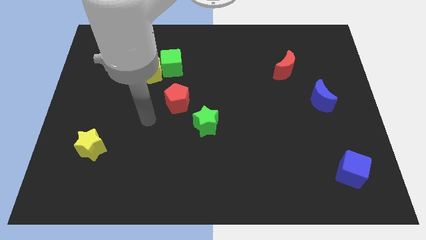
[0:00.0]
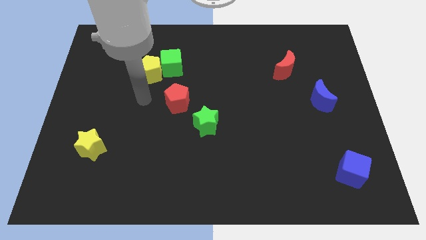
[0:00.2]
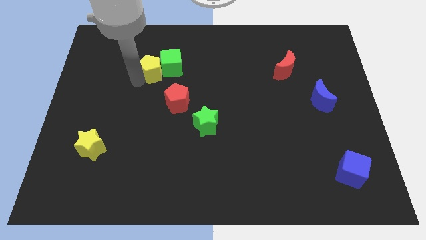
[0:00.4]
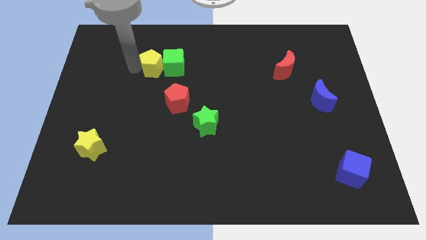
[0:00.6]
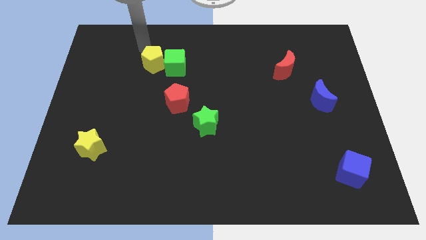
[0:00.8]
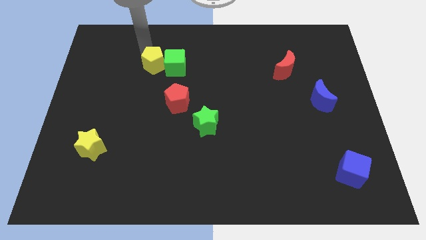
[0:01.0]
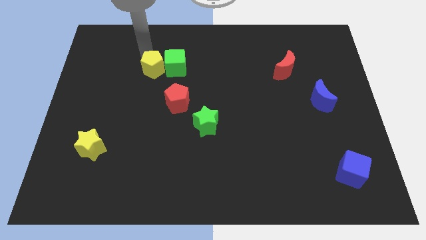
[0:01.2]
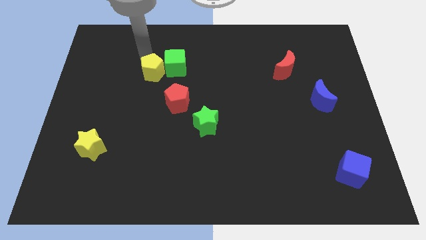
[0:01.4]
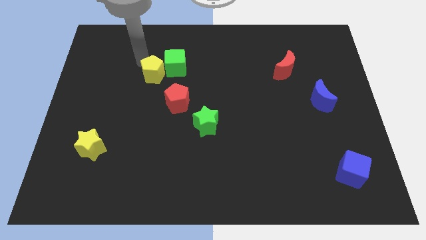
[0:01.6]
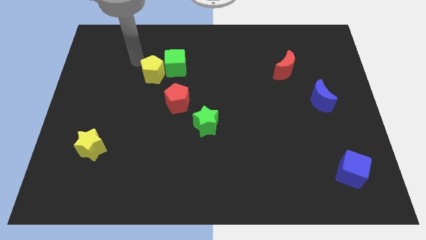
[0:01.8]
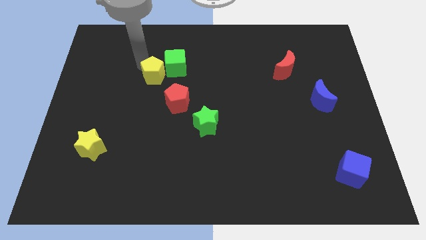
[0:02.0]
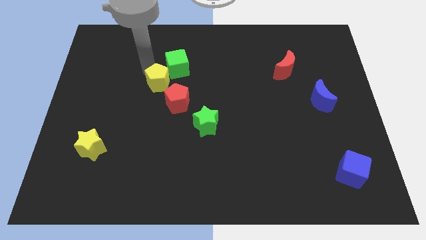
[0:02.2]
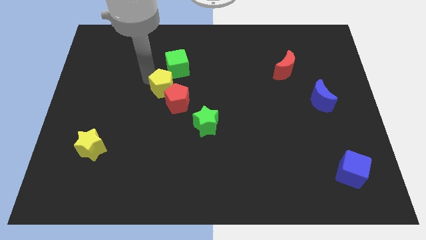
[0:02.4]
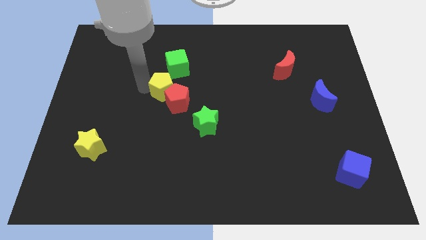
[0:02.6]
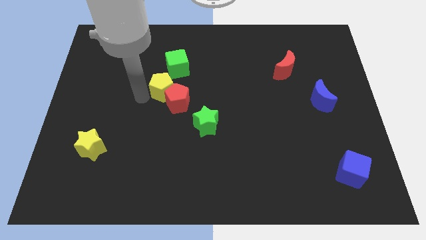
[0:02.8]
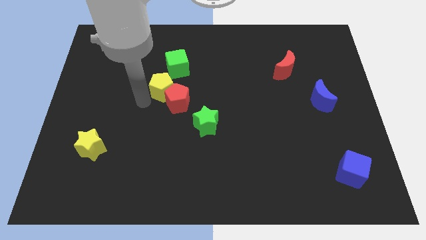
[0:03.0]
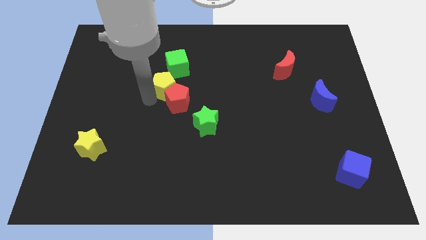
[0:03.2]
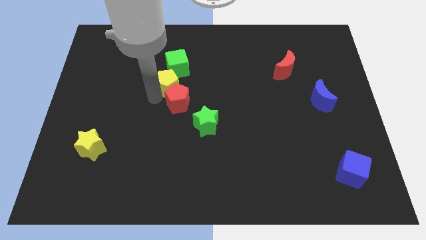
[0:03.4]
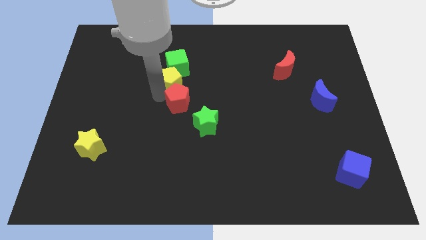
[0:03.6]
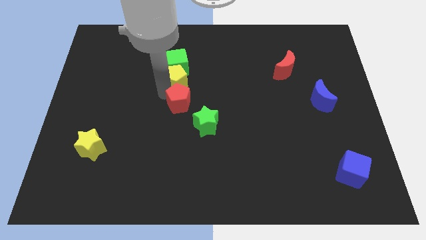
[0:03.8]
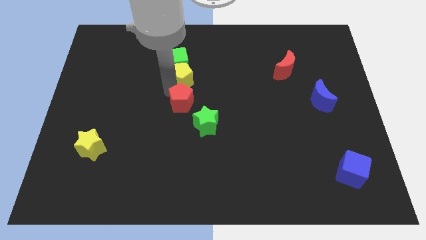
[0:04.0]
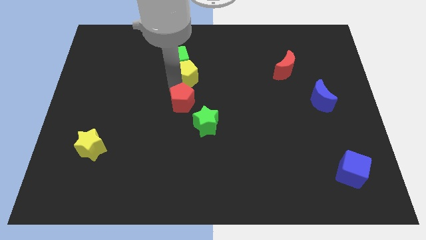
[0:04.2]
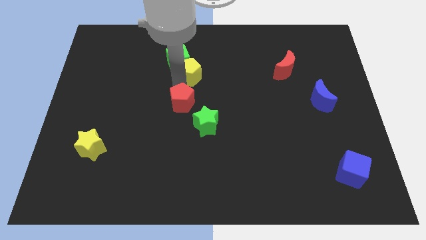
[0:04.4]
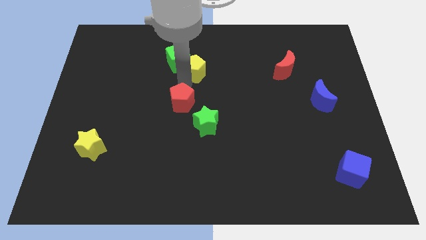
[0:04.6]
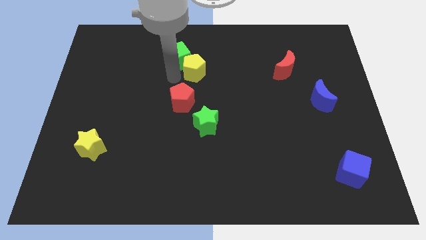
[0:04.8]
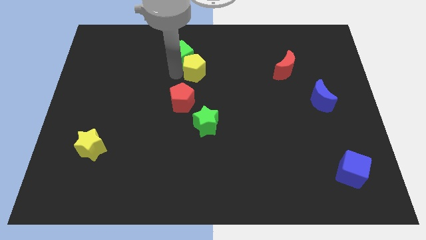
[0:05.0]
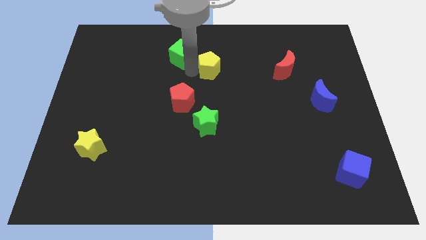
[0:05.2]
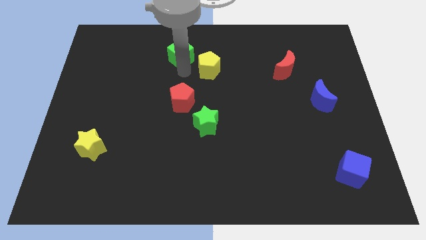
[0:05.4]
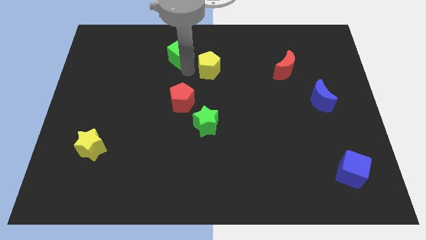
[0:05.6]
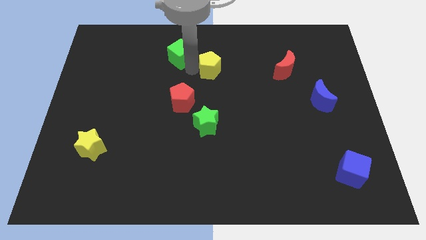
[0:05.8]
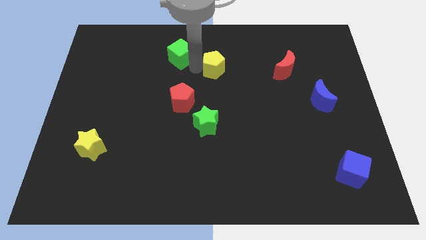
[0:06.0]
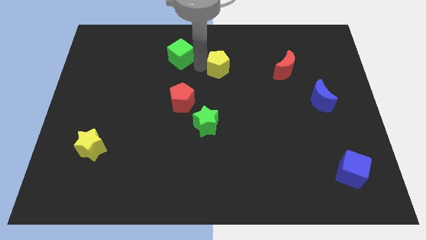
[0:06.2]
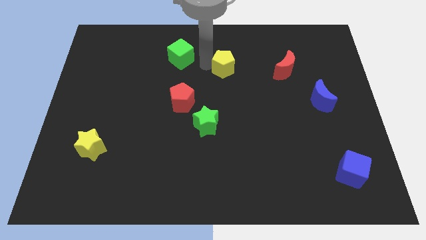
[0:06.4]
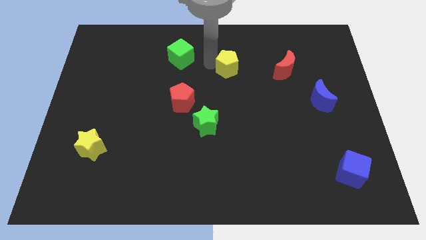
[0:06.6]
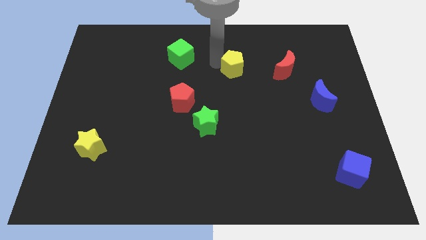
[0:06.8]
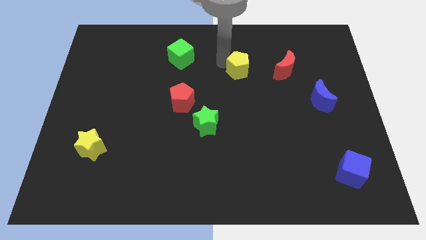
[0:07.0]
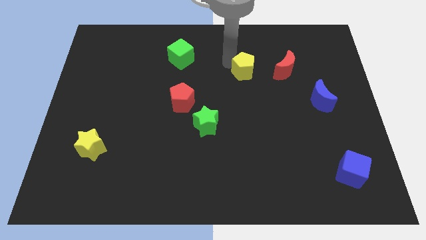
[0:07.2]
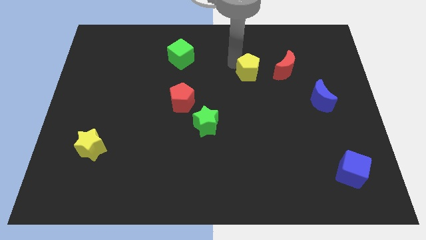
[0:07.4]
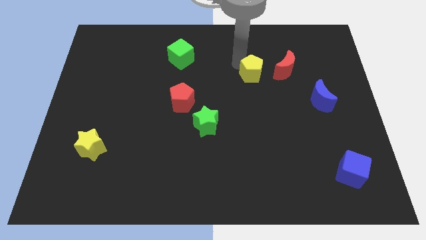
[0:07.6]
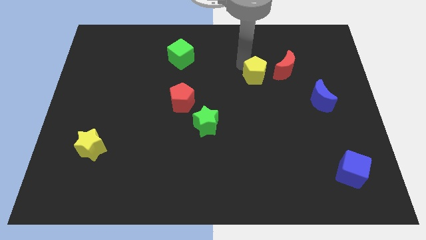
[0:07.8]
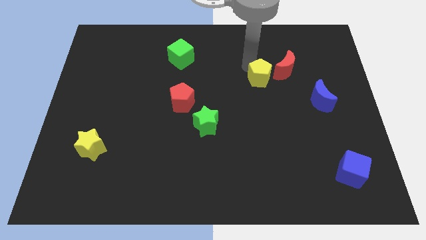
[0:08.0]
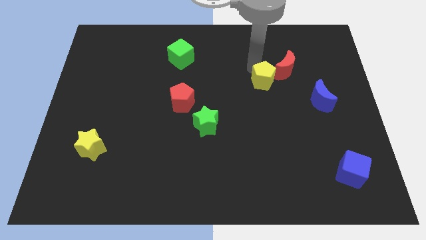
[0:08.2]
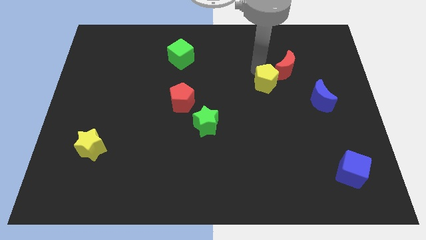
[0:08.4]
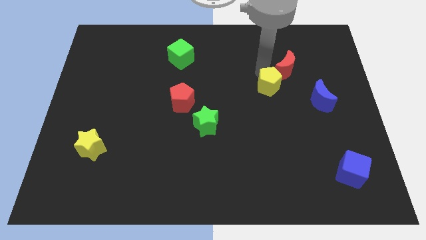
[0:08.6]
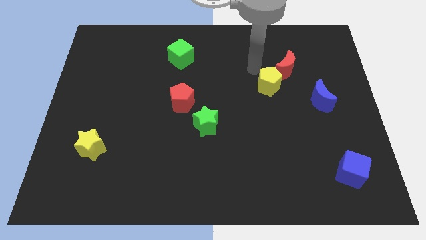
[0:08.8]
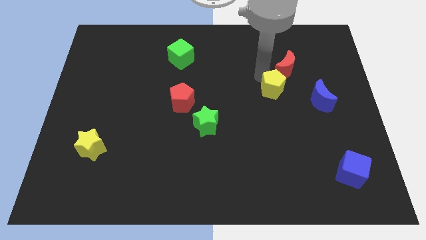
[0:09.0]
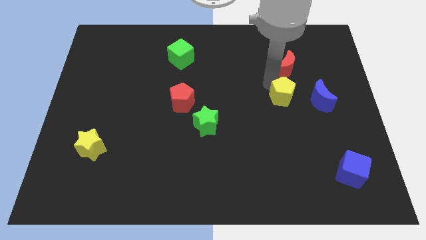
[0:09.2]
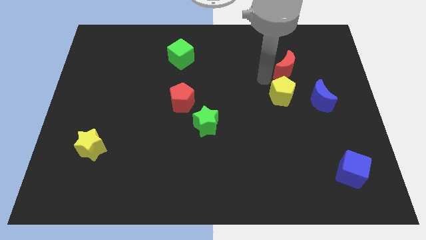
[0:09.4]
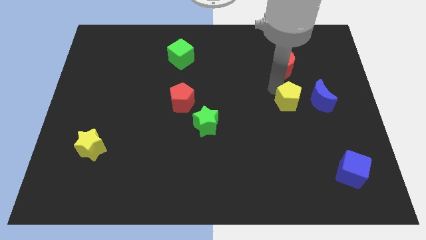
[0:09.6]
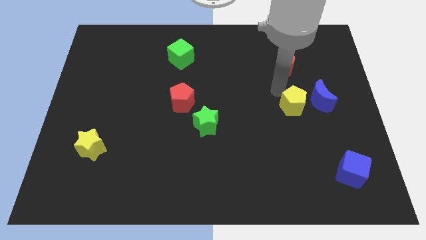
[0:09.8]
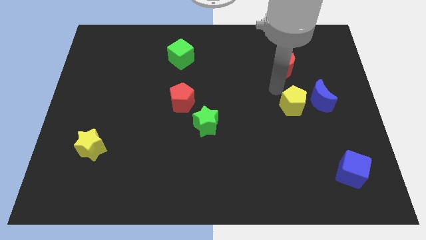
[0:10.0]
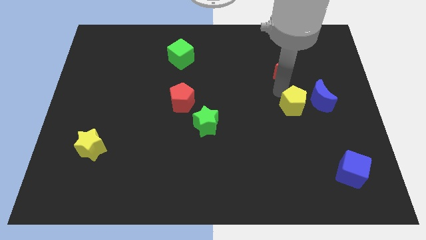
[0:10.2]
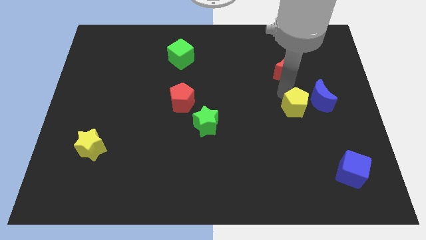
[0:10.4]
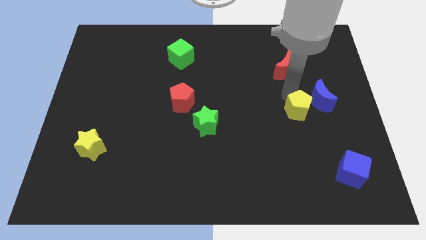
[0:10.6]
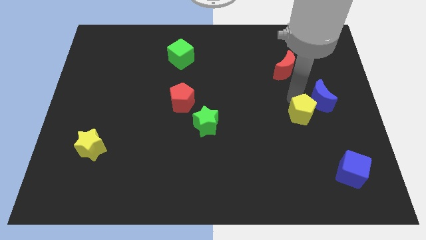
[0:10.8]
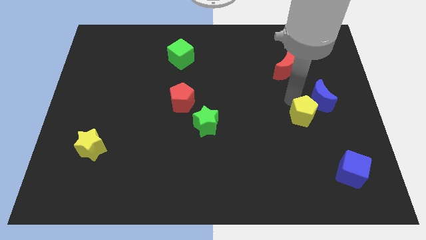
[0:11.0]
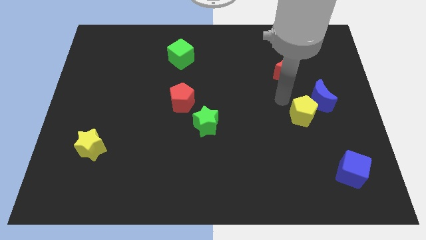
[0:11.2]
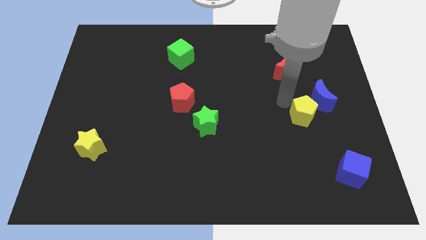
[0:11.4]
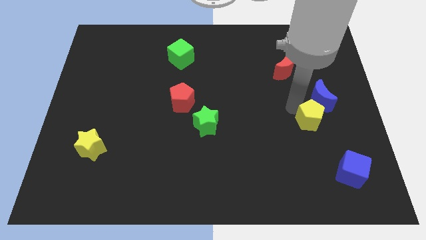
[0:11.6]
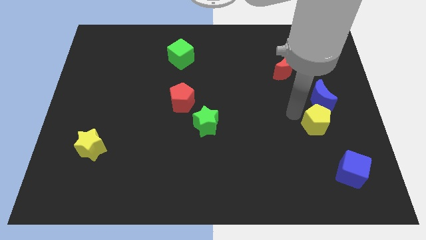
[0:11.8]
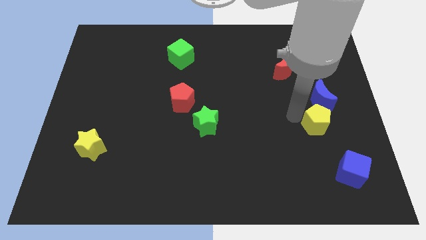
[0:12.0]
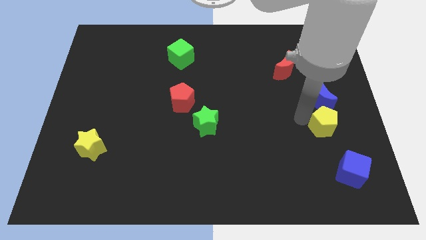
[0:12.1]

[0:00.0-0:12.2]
slide the yellow pentagon to the top of the blue cube

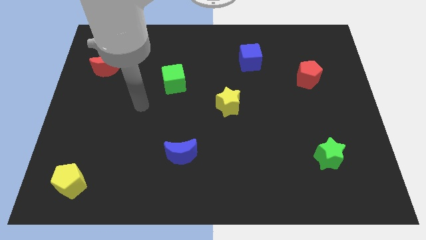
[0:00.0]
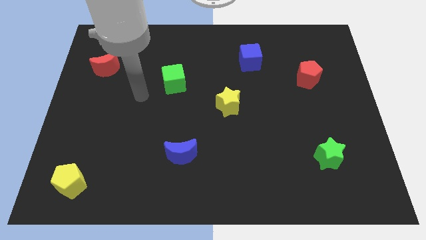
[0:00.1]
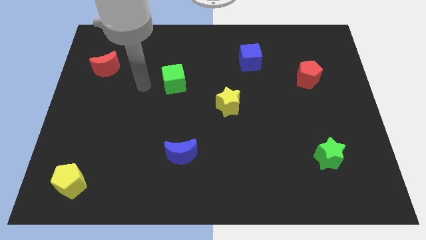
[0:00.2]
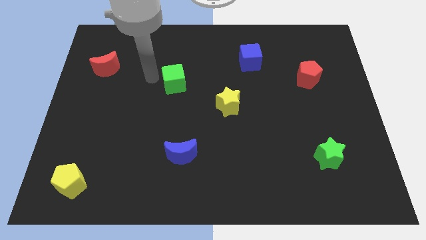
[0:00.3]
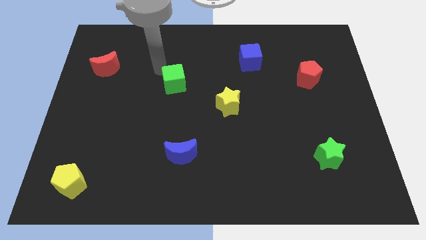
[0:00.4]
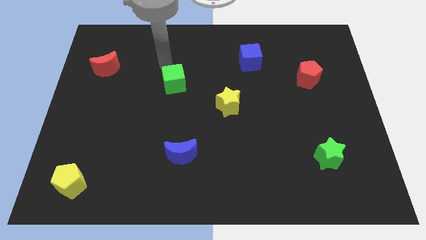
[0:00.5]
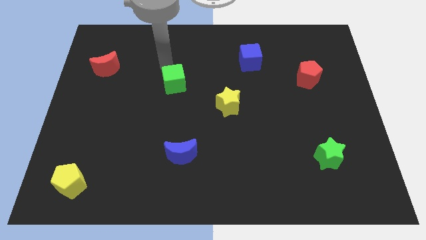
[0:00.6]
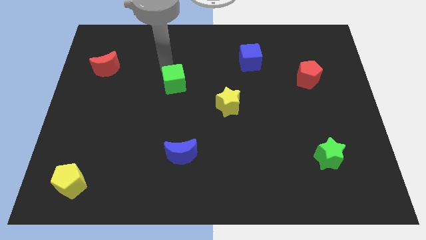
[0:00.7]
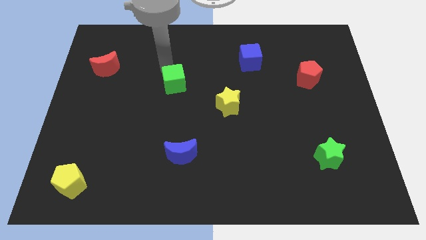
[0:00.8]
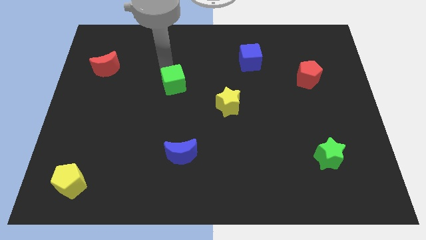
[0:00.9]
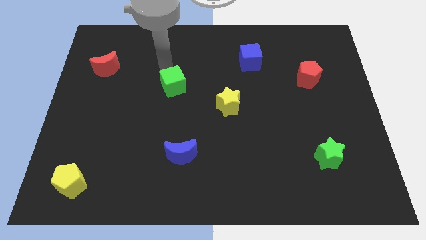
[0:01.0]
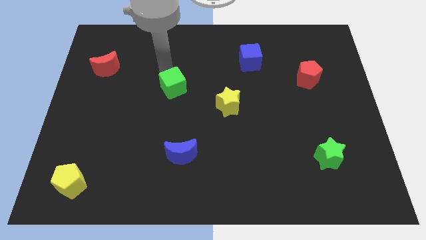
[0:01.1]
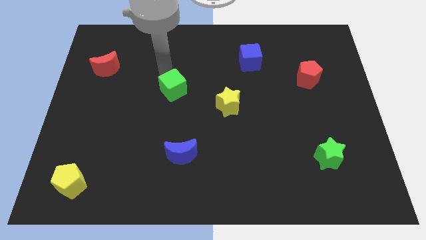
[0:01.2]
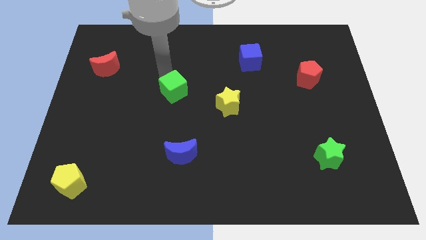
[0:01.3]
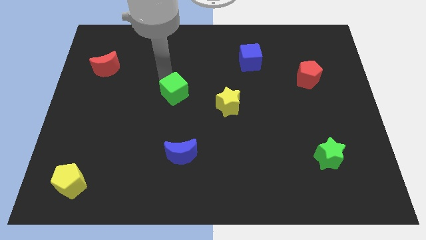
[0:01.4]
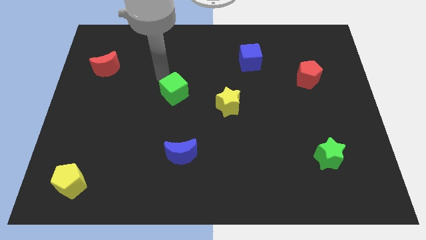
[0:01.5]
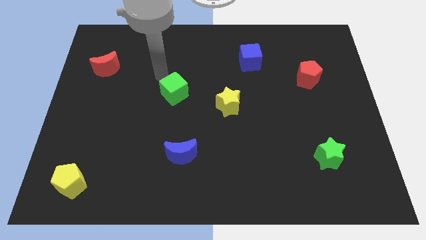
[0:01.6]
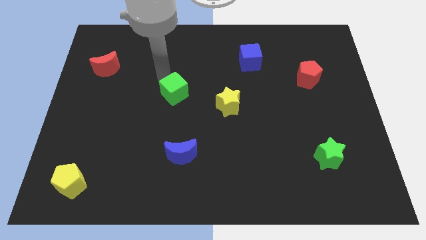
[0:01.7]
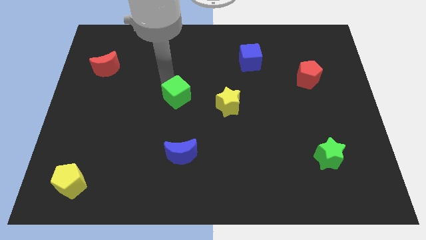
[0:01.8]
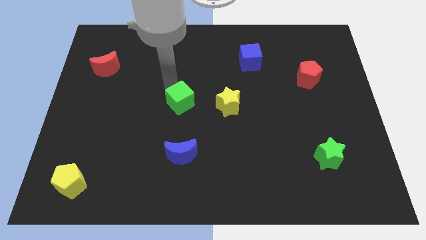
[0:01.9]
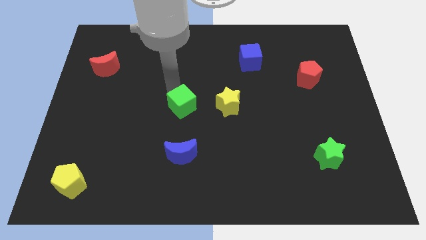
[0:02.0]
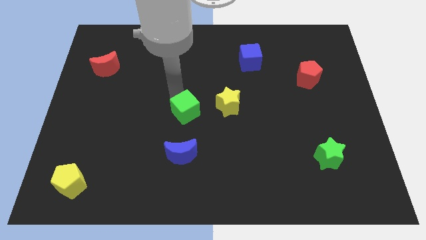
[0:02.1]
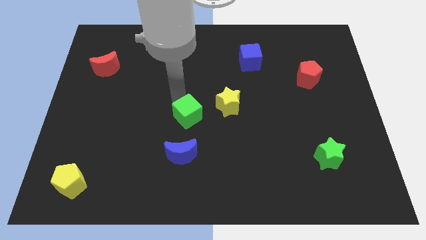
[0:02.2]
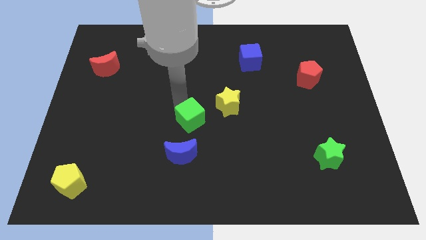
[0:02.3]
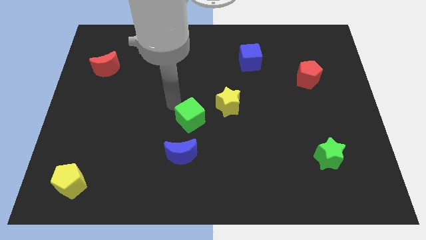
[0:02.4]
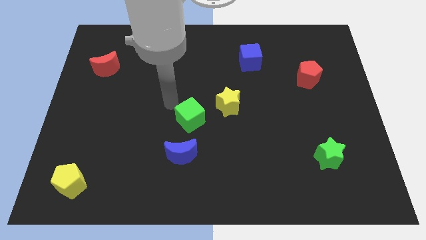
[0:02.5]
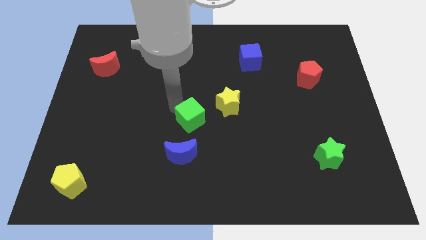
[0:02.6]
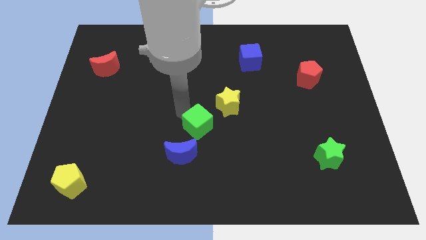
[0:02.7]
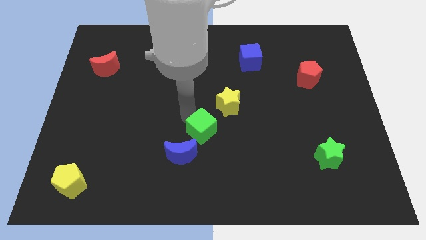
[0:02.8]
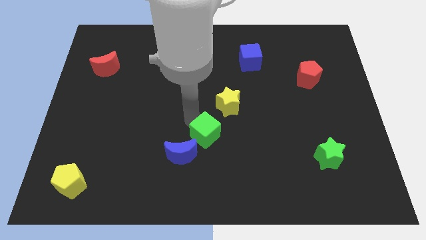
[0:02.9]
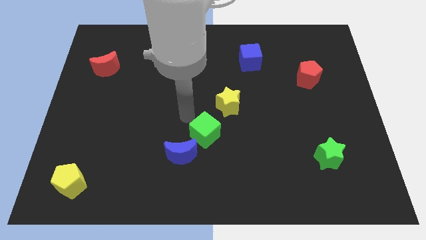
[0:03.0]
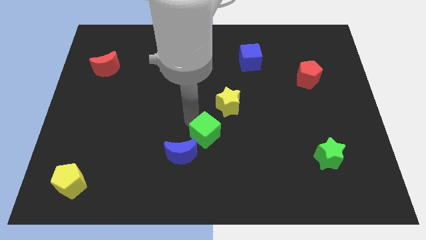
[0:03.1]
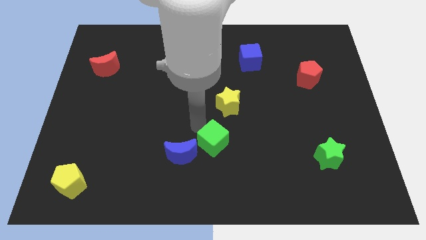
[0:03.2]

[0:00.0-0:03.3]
move the green cube just right of the blue moon
